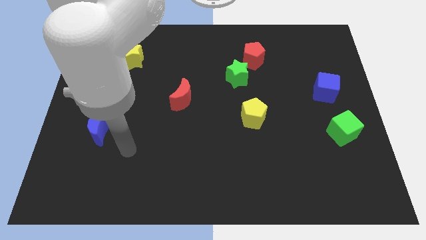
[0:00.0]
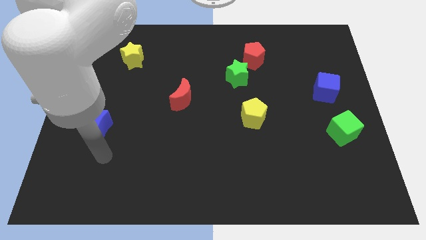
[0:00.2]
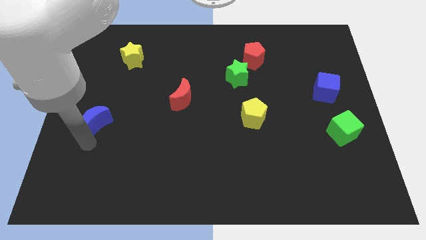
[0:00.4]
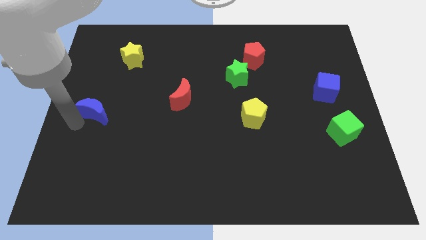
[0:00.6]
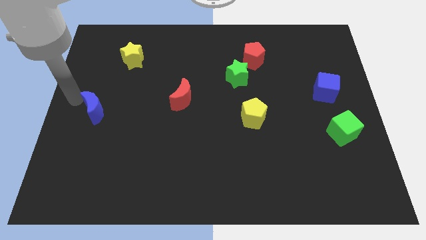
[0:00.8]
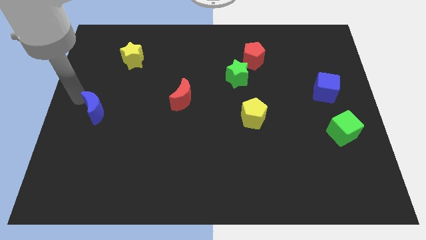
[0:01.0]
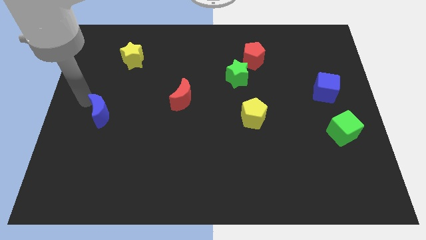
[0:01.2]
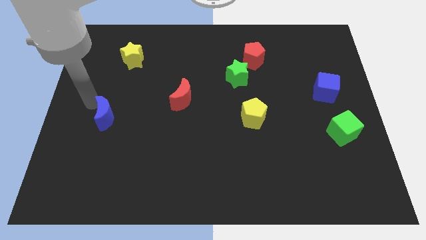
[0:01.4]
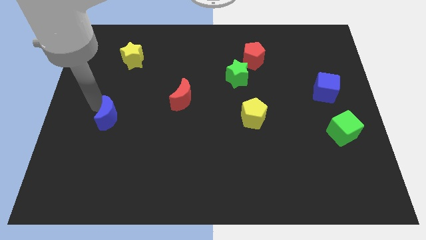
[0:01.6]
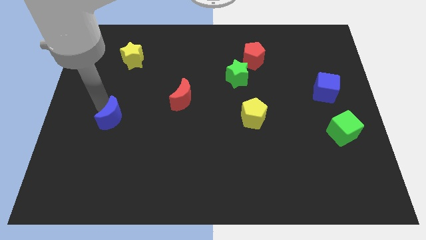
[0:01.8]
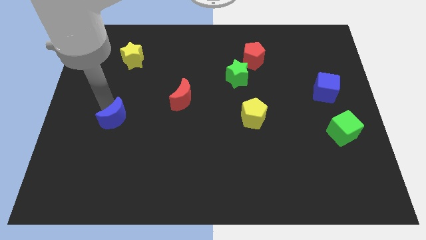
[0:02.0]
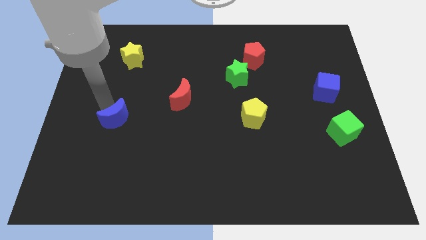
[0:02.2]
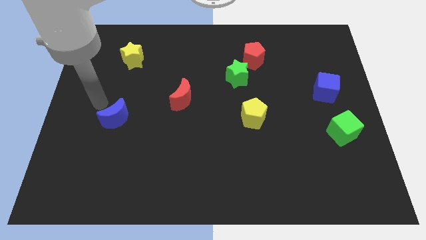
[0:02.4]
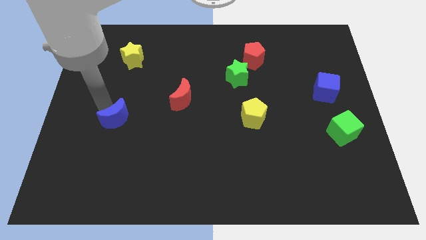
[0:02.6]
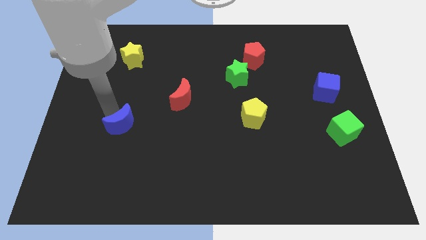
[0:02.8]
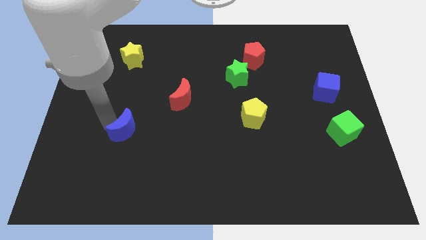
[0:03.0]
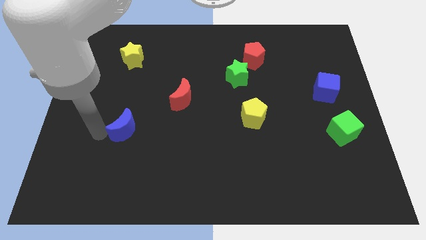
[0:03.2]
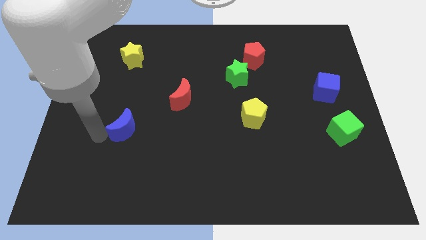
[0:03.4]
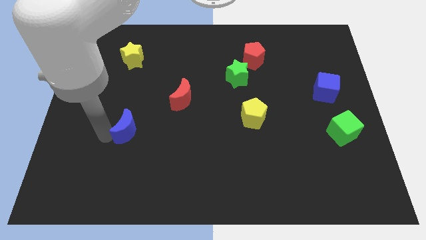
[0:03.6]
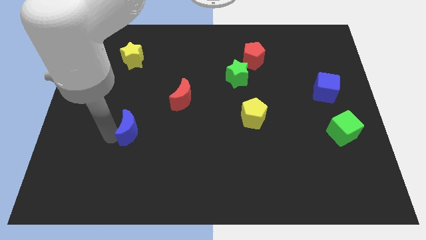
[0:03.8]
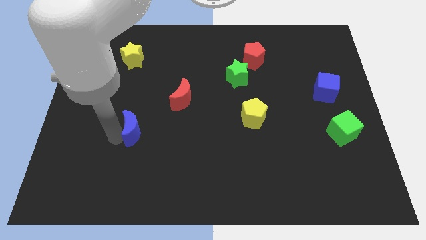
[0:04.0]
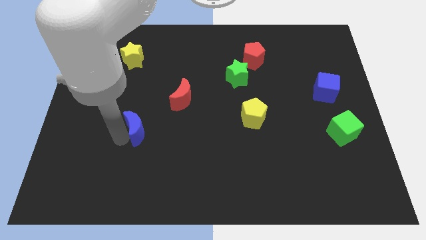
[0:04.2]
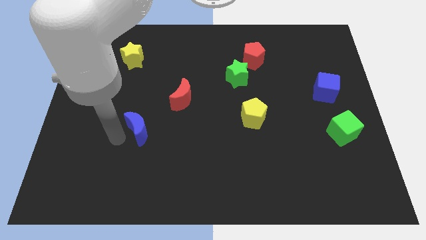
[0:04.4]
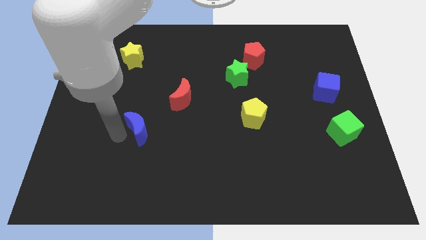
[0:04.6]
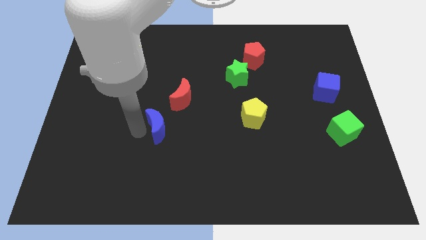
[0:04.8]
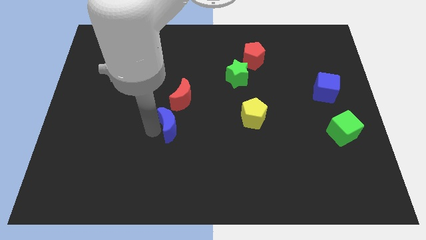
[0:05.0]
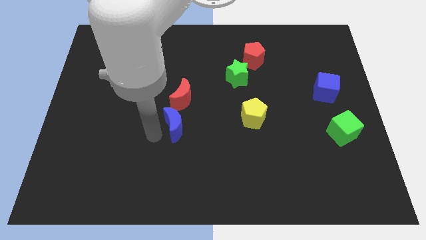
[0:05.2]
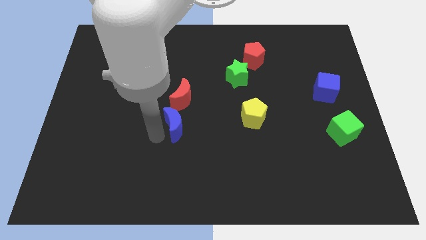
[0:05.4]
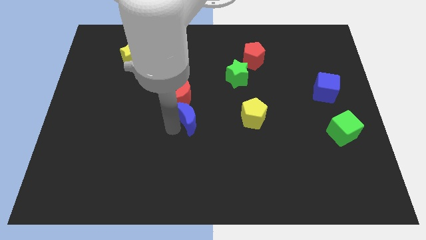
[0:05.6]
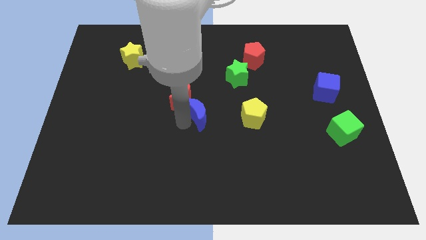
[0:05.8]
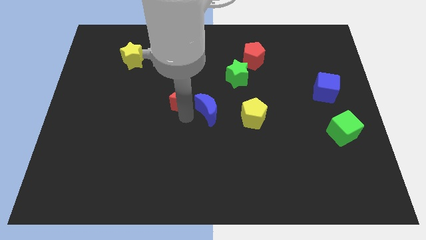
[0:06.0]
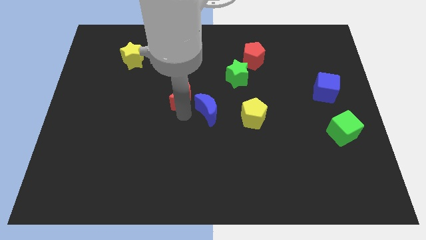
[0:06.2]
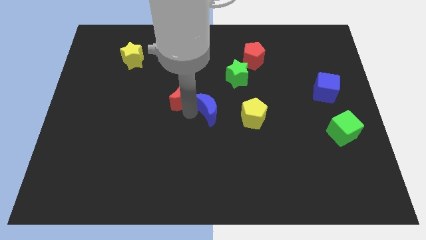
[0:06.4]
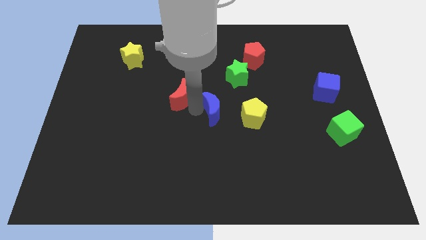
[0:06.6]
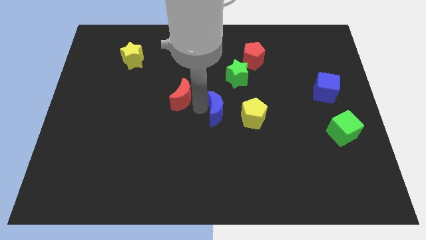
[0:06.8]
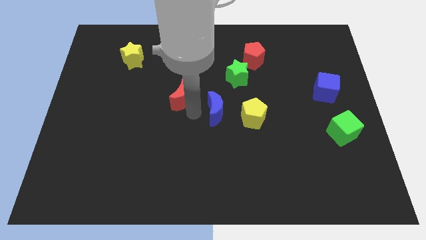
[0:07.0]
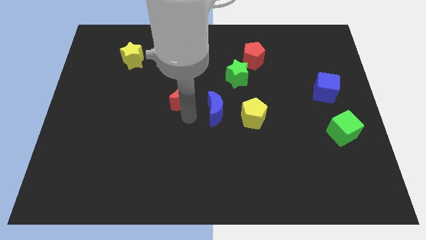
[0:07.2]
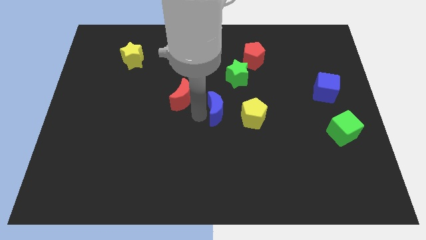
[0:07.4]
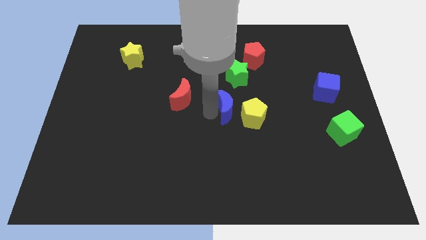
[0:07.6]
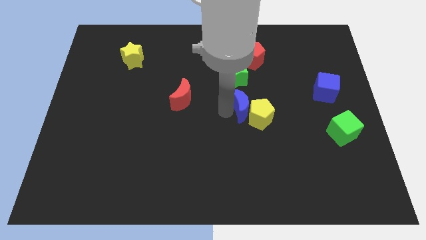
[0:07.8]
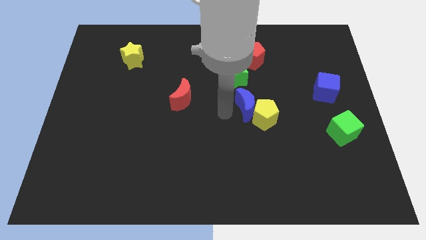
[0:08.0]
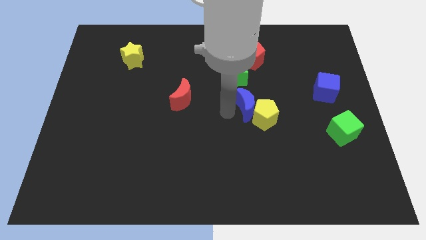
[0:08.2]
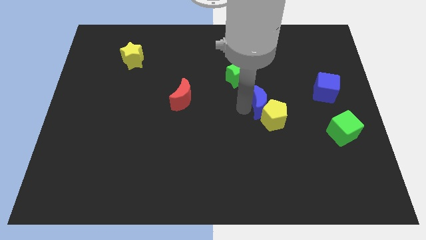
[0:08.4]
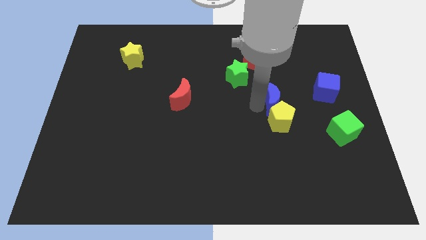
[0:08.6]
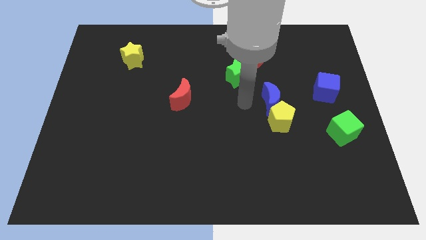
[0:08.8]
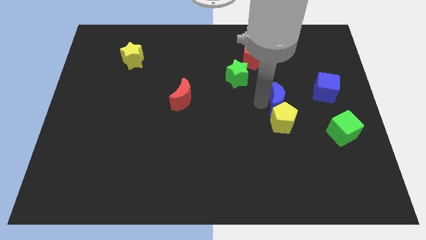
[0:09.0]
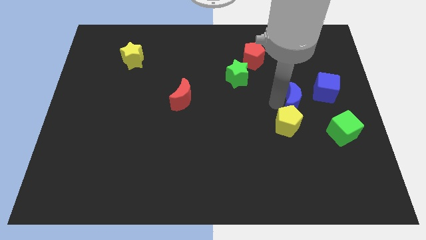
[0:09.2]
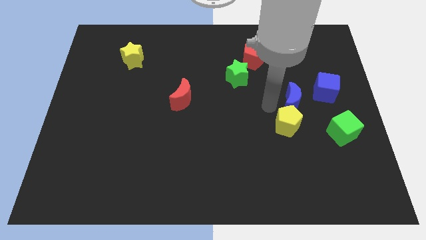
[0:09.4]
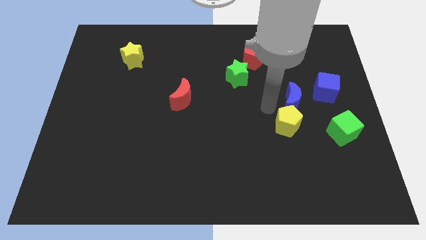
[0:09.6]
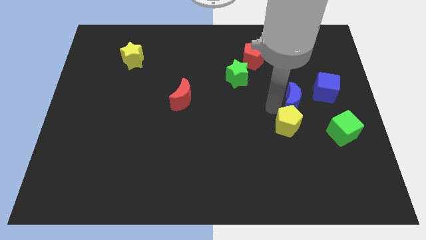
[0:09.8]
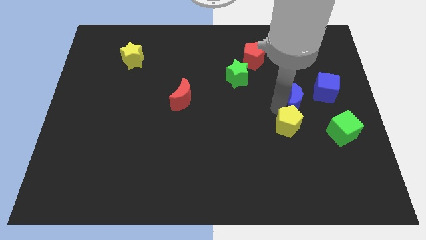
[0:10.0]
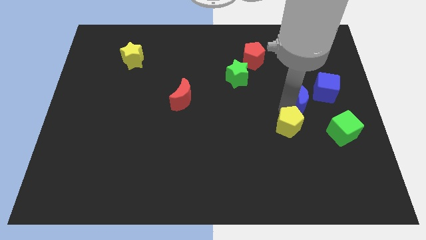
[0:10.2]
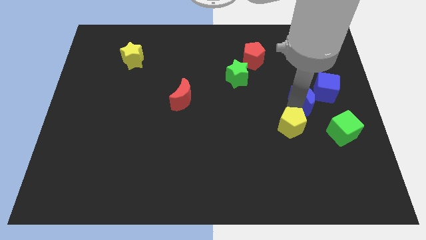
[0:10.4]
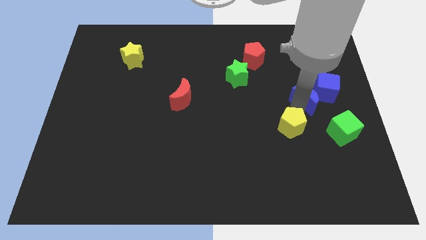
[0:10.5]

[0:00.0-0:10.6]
put the blue moon to the blue cube

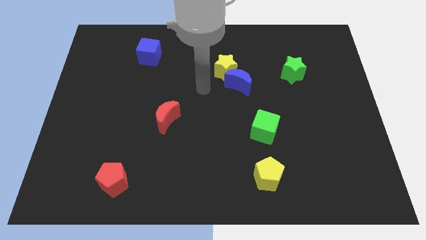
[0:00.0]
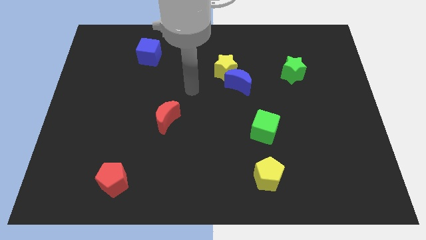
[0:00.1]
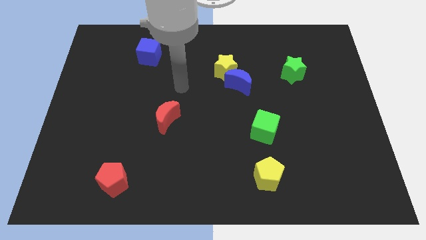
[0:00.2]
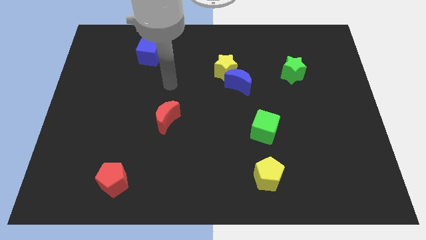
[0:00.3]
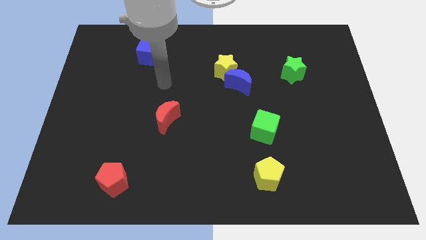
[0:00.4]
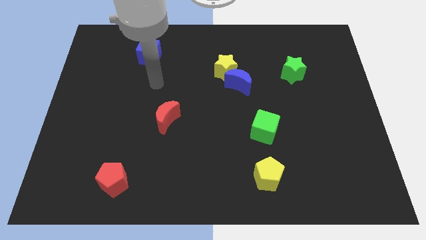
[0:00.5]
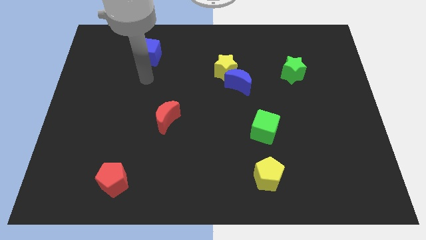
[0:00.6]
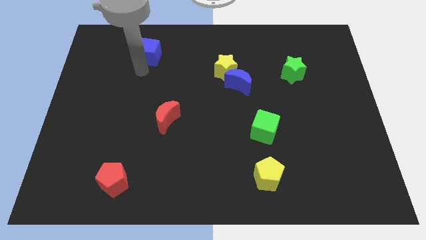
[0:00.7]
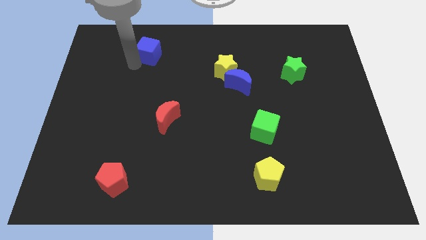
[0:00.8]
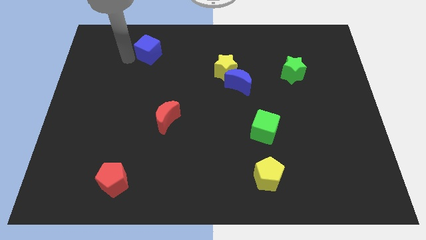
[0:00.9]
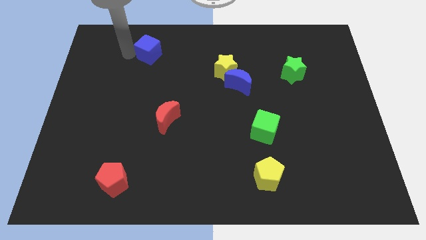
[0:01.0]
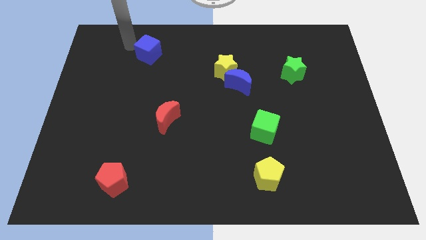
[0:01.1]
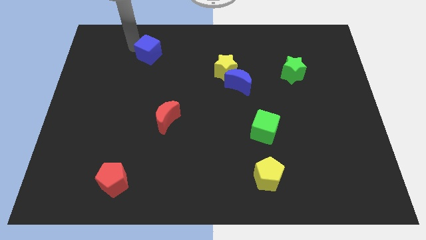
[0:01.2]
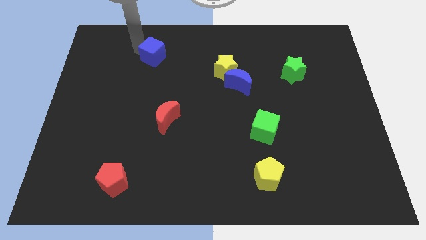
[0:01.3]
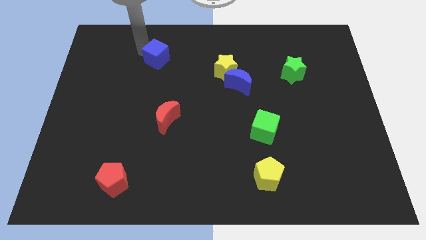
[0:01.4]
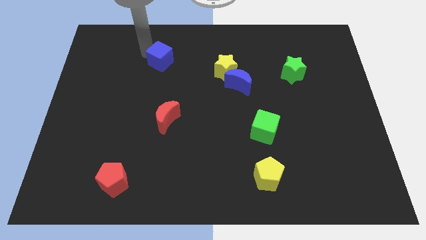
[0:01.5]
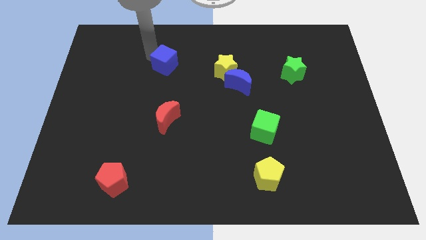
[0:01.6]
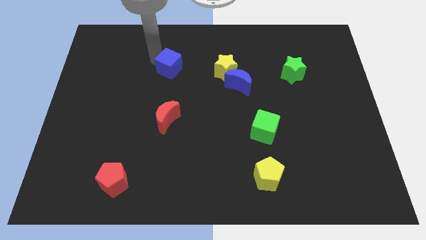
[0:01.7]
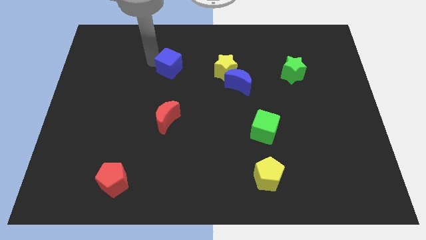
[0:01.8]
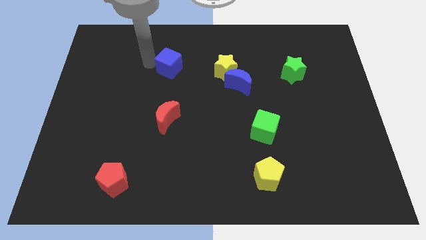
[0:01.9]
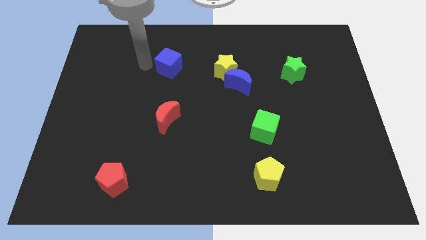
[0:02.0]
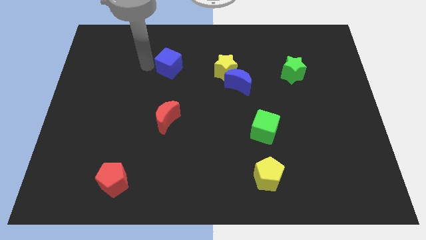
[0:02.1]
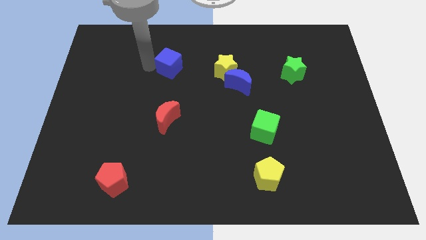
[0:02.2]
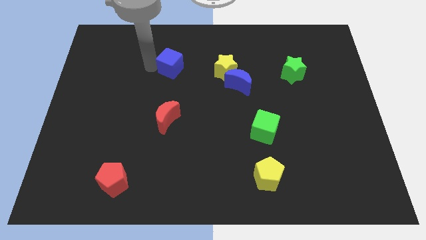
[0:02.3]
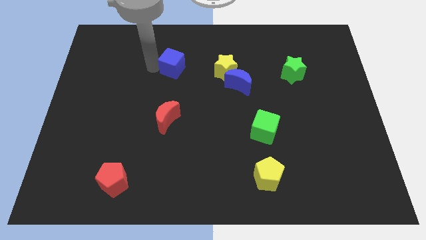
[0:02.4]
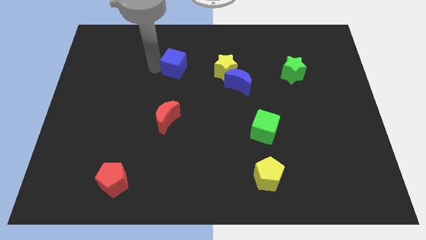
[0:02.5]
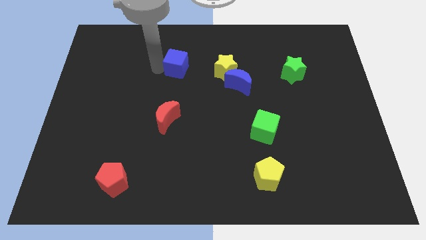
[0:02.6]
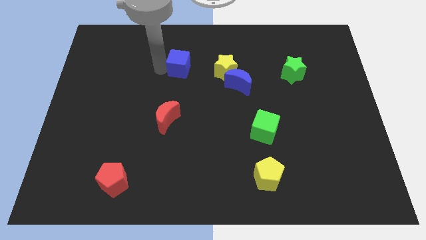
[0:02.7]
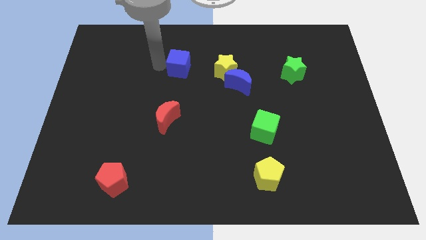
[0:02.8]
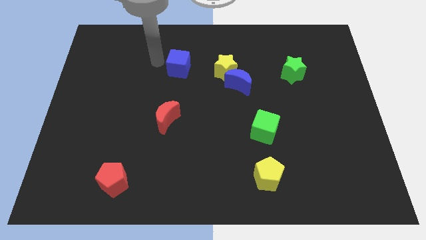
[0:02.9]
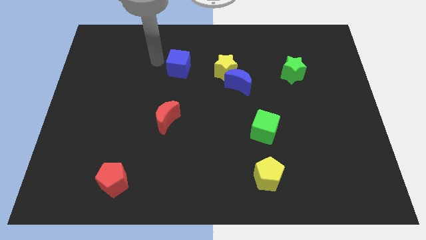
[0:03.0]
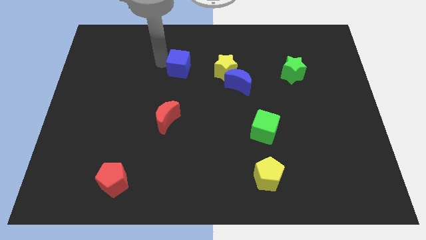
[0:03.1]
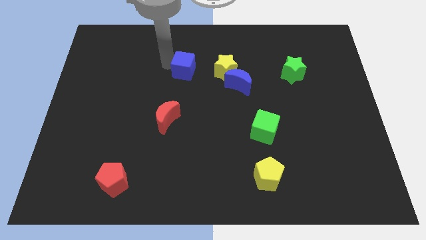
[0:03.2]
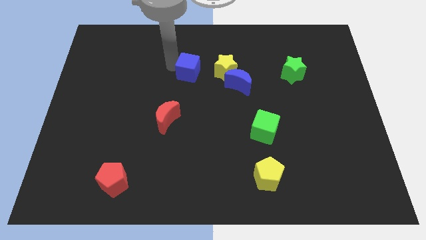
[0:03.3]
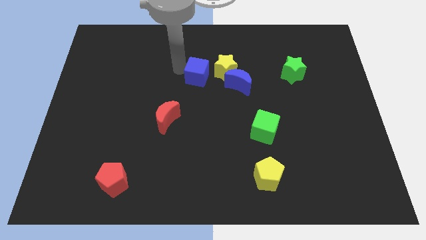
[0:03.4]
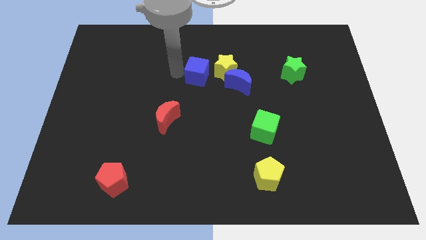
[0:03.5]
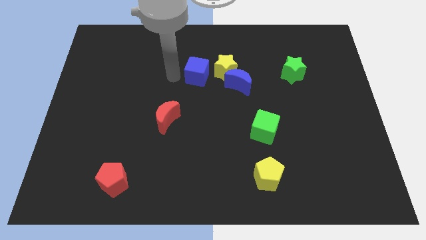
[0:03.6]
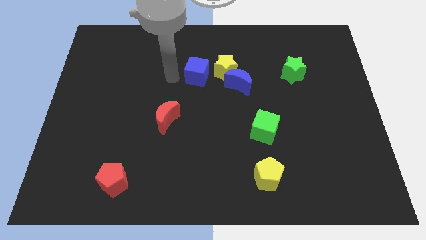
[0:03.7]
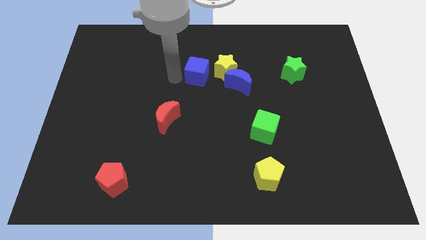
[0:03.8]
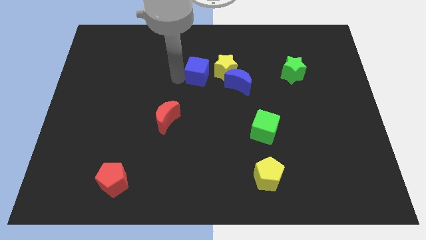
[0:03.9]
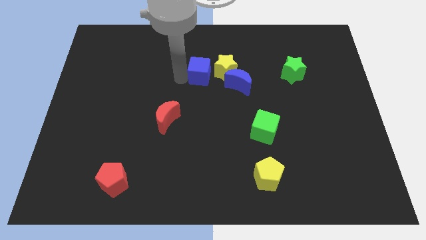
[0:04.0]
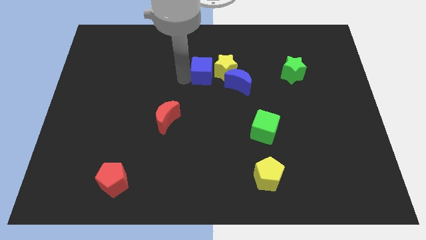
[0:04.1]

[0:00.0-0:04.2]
slide the blue cube next to the yellow star
